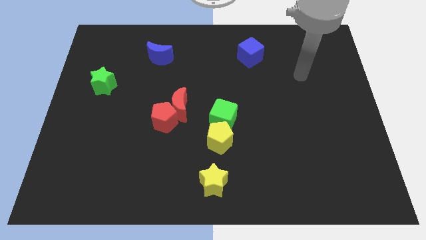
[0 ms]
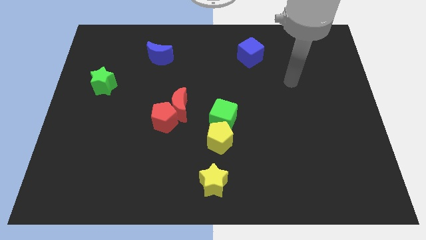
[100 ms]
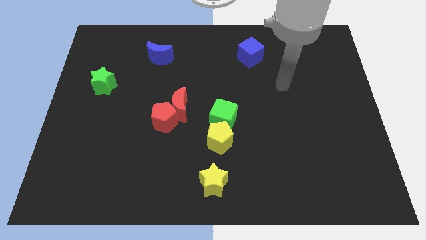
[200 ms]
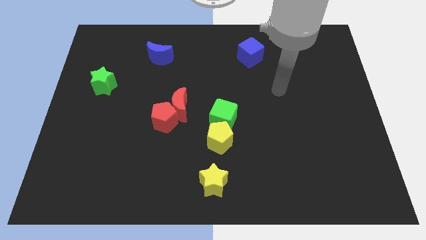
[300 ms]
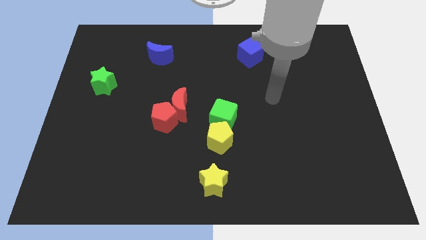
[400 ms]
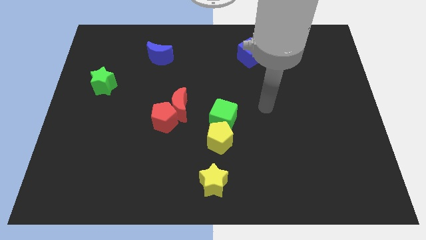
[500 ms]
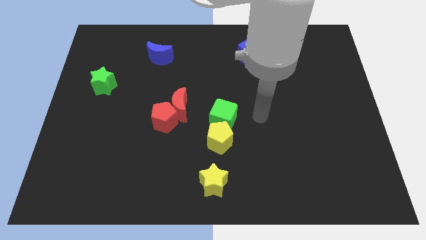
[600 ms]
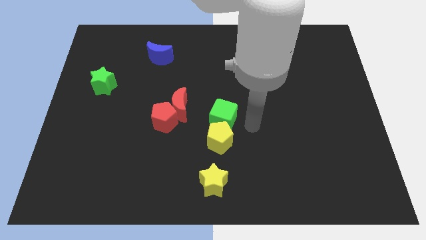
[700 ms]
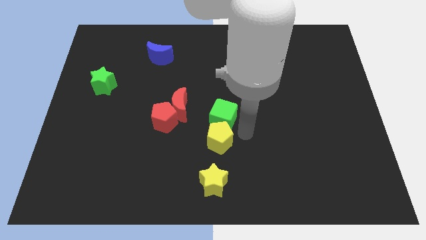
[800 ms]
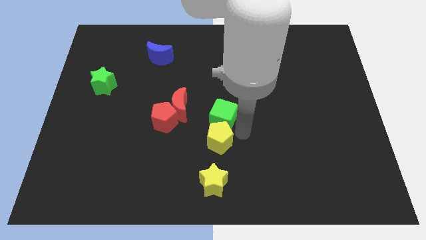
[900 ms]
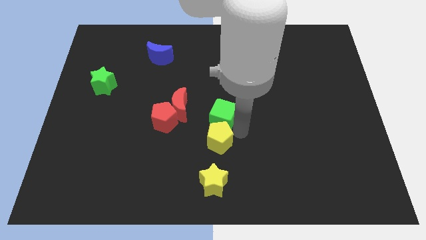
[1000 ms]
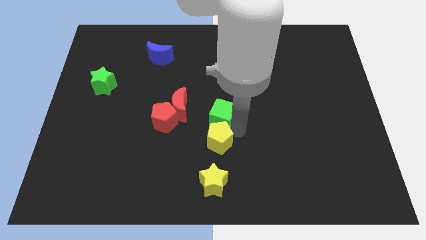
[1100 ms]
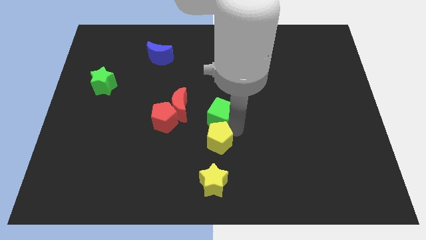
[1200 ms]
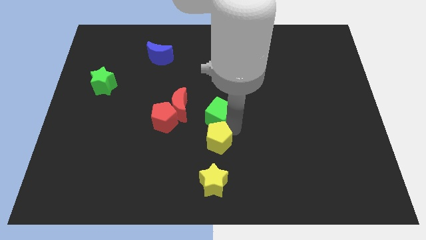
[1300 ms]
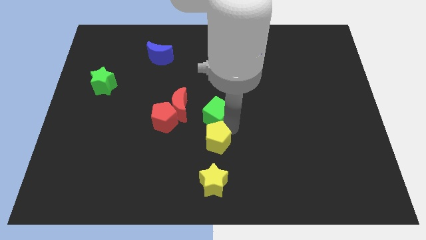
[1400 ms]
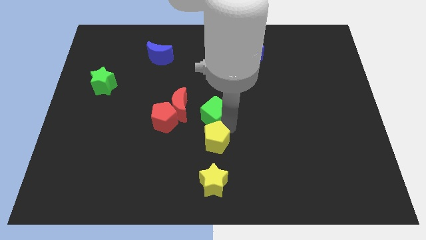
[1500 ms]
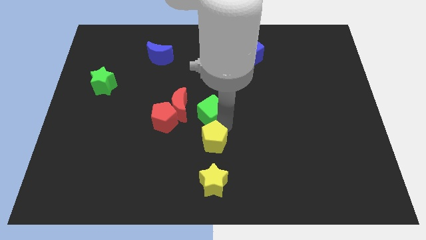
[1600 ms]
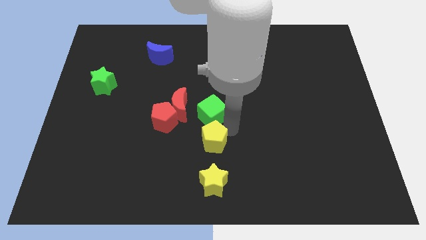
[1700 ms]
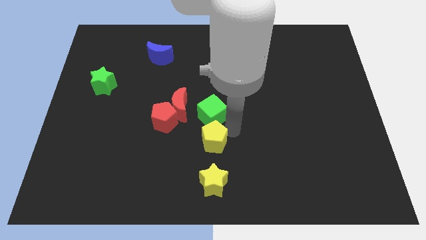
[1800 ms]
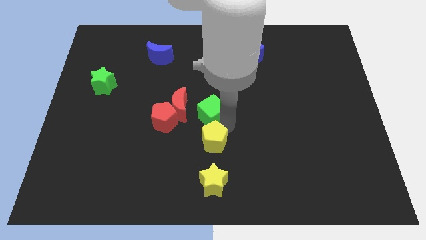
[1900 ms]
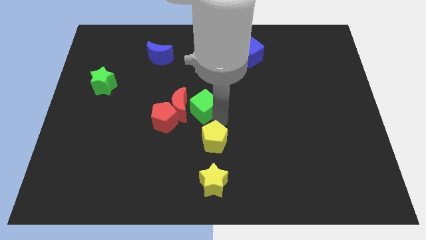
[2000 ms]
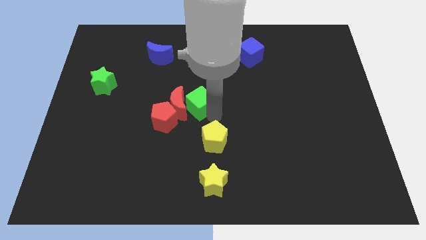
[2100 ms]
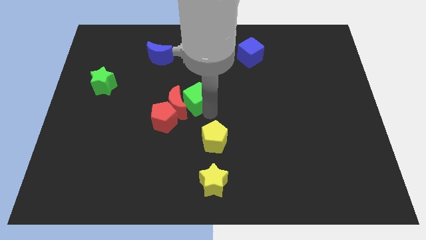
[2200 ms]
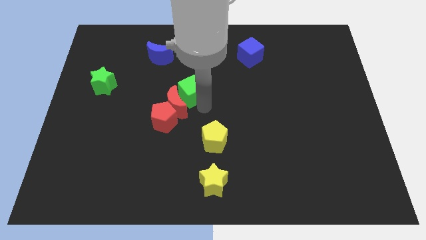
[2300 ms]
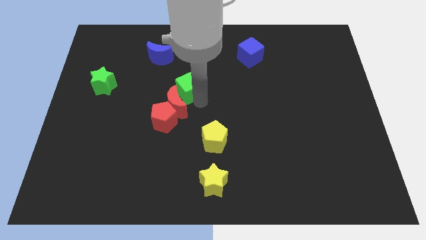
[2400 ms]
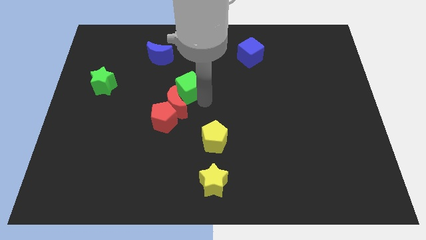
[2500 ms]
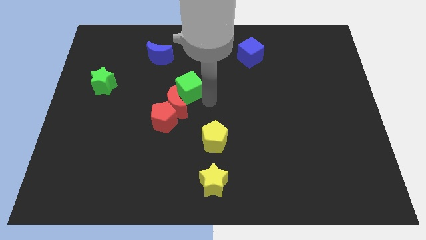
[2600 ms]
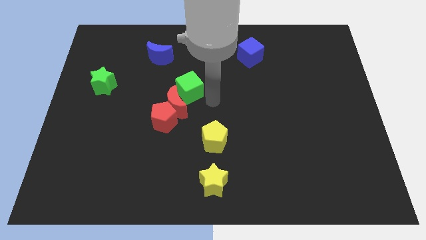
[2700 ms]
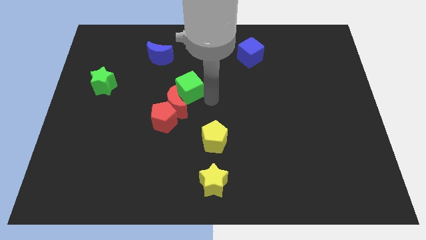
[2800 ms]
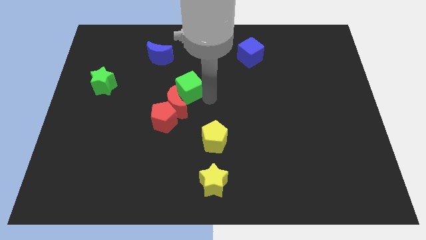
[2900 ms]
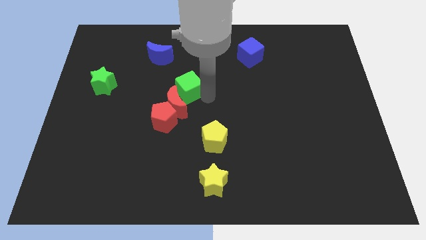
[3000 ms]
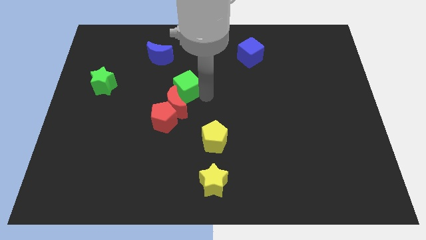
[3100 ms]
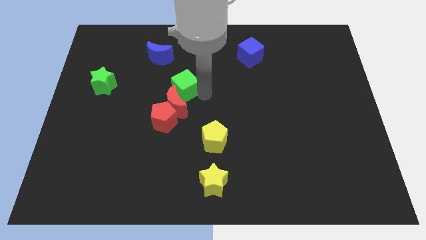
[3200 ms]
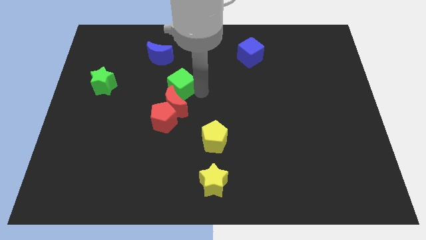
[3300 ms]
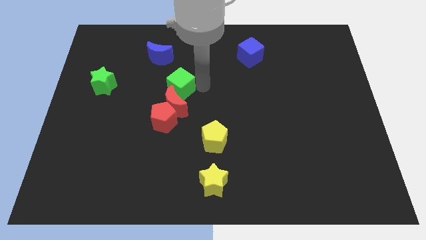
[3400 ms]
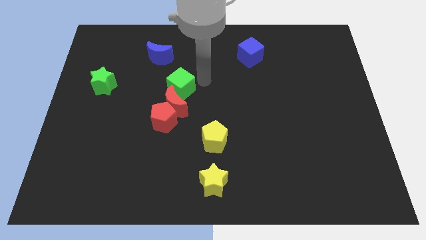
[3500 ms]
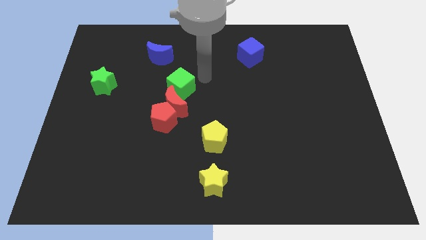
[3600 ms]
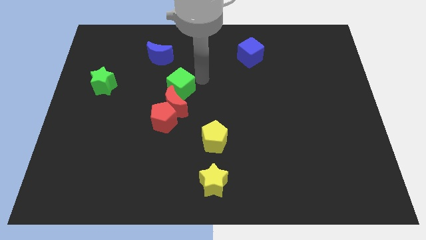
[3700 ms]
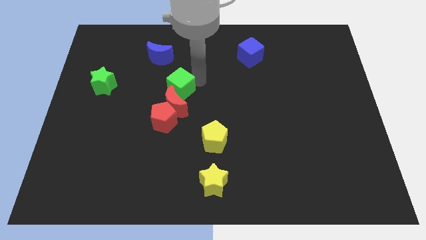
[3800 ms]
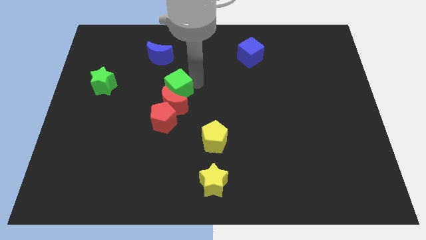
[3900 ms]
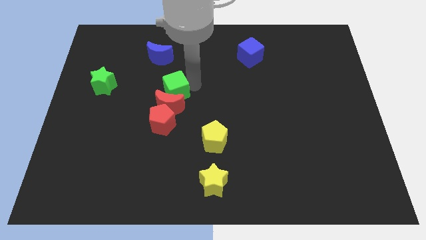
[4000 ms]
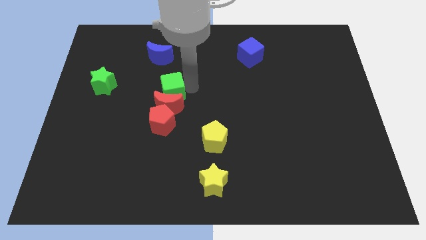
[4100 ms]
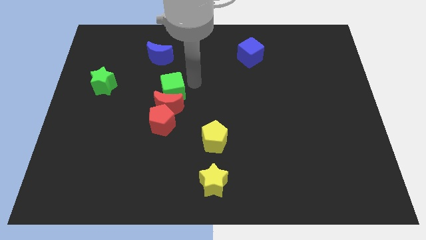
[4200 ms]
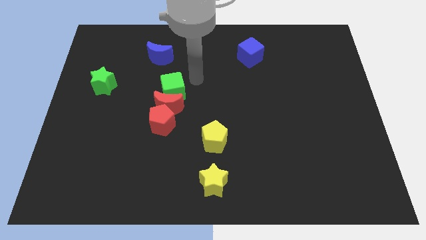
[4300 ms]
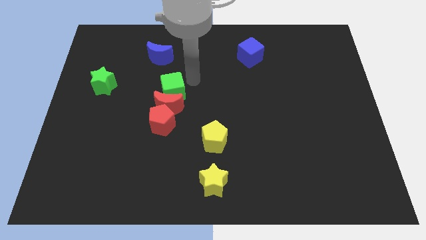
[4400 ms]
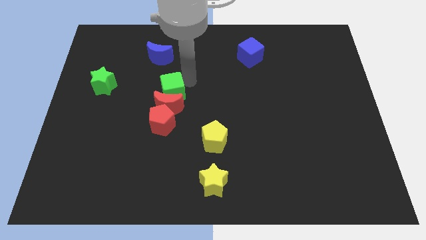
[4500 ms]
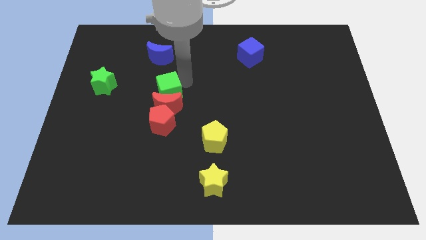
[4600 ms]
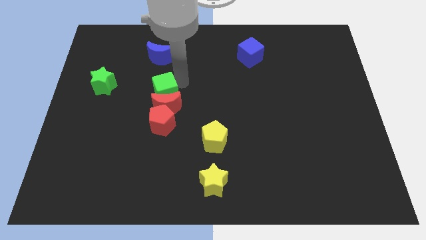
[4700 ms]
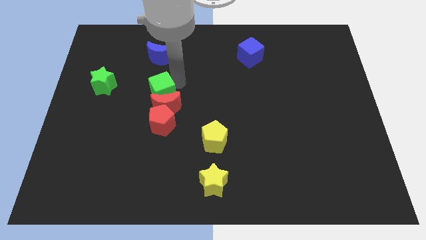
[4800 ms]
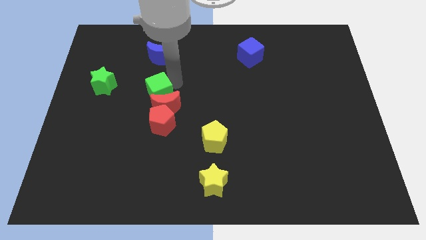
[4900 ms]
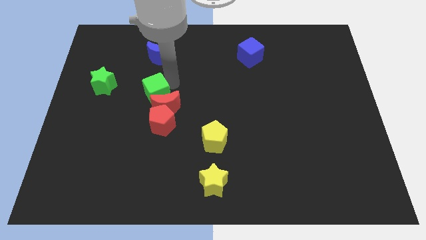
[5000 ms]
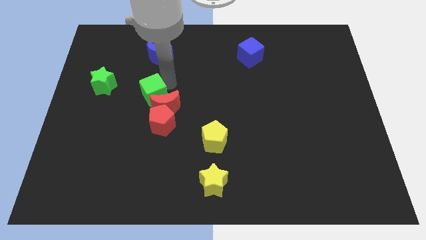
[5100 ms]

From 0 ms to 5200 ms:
put the green cube to the top left side of the red pentagon

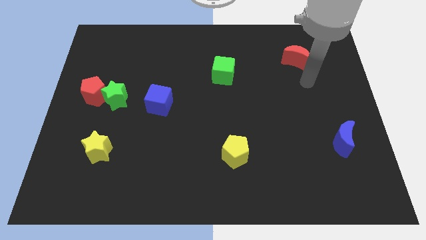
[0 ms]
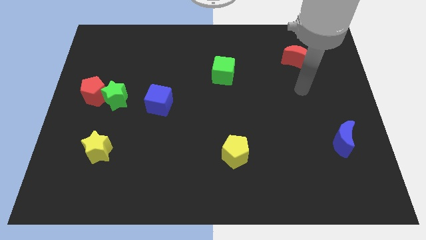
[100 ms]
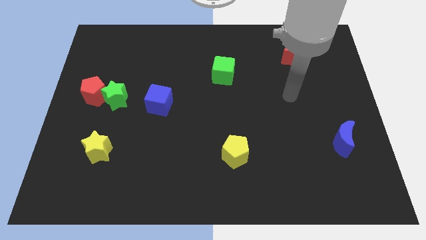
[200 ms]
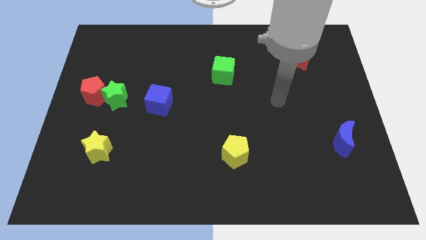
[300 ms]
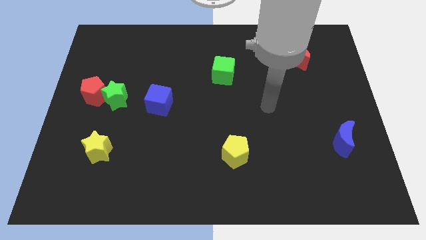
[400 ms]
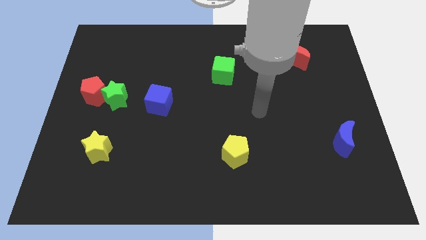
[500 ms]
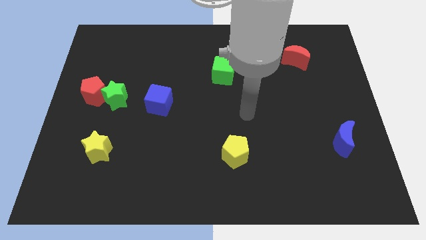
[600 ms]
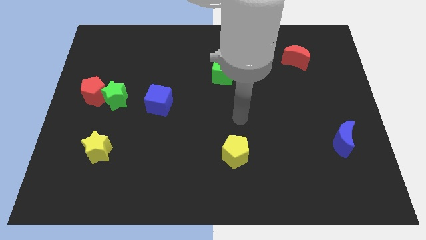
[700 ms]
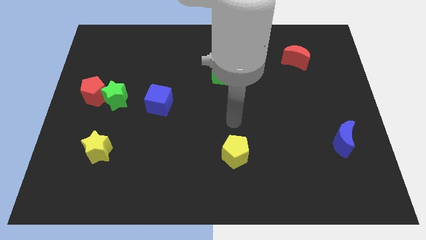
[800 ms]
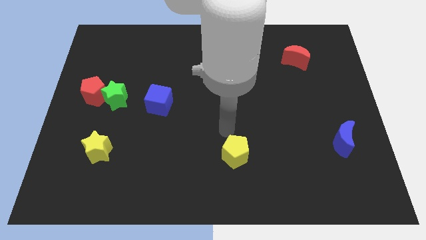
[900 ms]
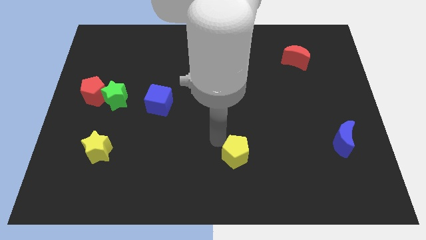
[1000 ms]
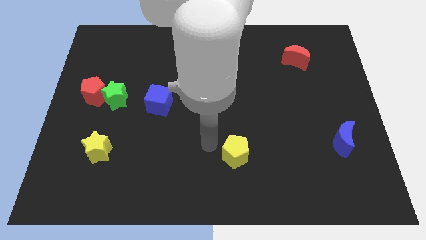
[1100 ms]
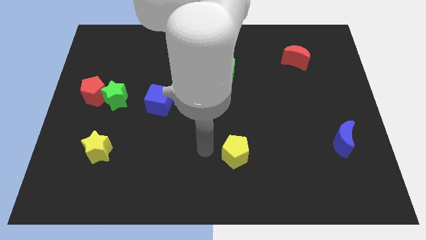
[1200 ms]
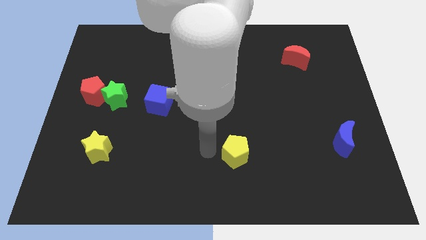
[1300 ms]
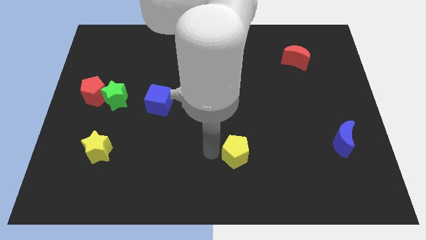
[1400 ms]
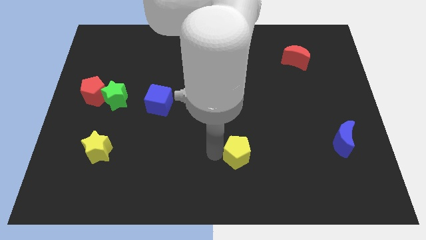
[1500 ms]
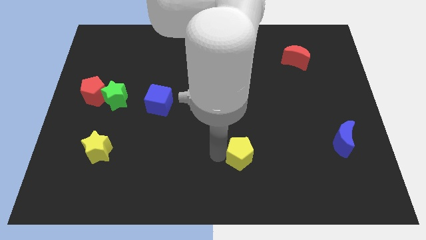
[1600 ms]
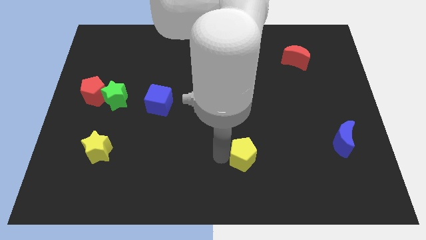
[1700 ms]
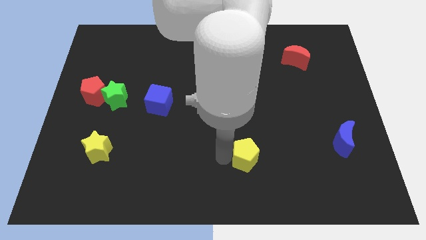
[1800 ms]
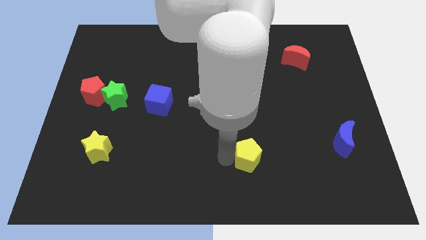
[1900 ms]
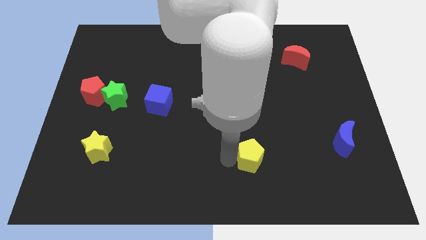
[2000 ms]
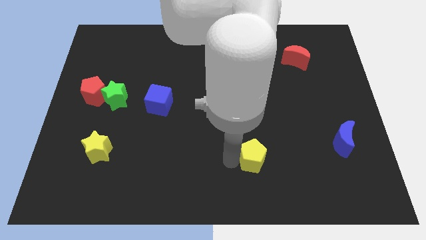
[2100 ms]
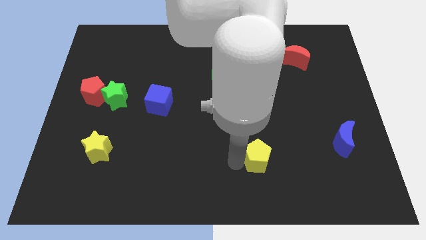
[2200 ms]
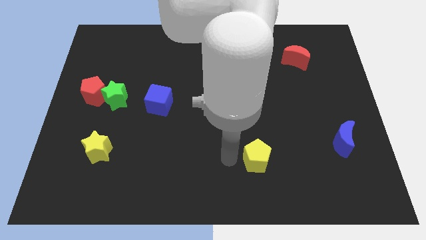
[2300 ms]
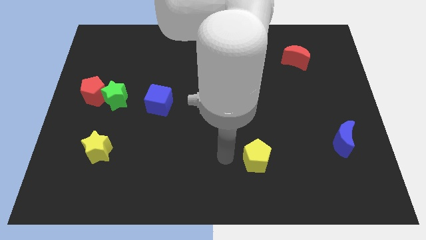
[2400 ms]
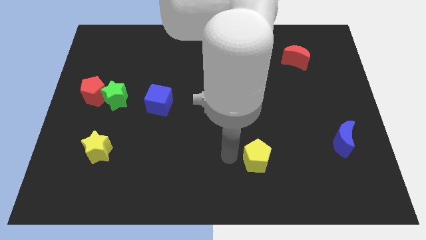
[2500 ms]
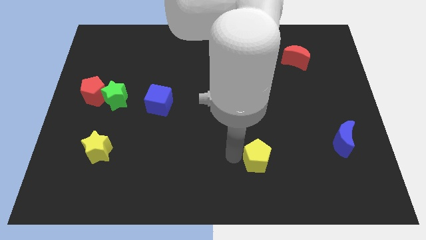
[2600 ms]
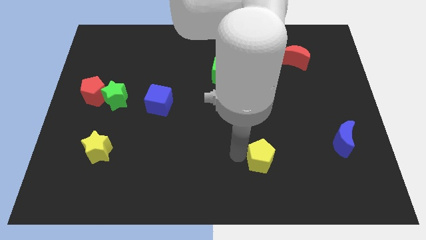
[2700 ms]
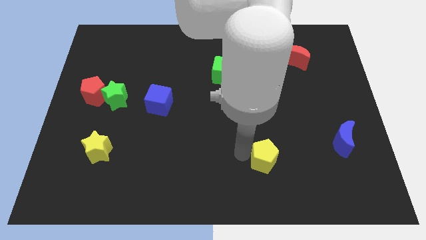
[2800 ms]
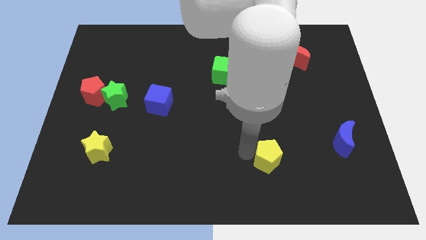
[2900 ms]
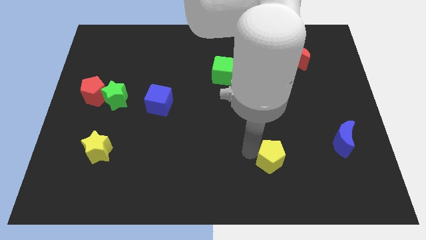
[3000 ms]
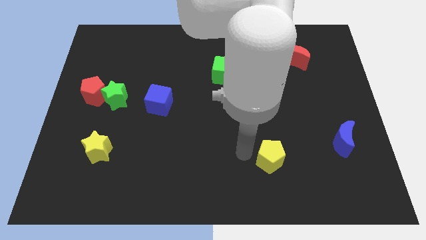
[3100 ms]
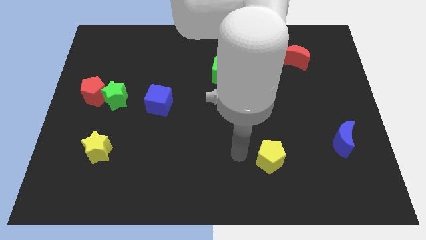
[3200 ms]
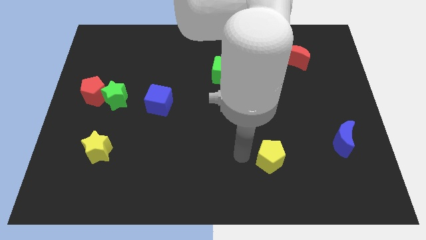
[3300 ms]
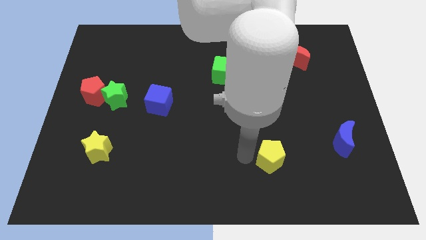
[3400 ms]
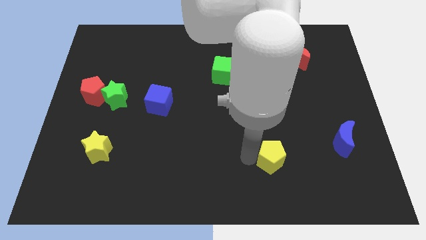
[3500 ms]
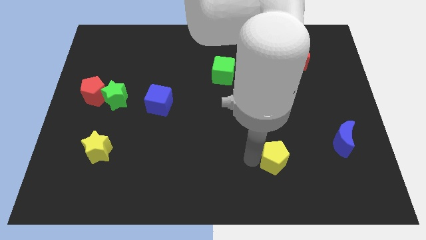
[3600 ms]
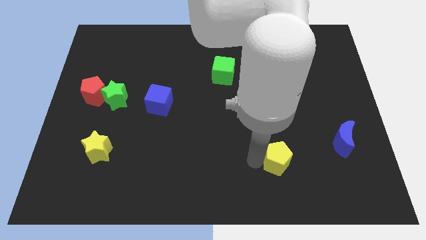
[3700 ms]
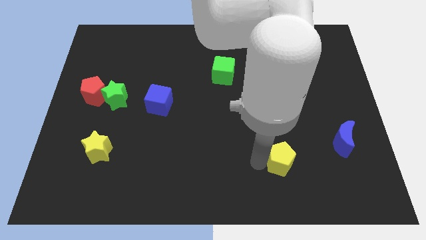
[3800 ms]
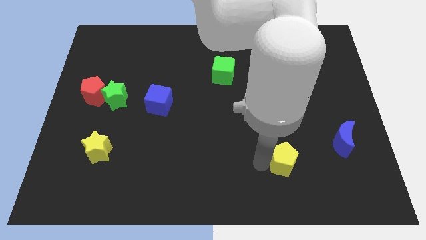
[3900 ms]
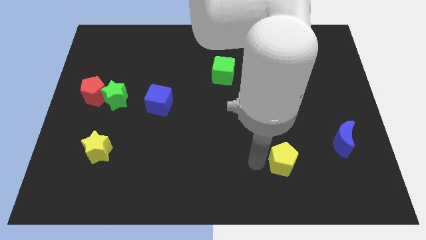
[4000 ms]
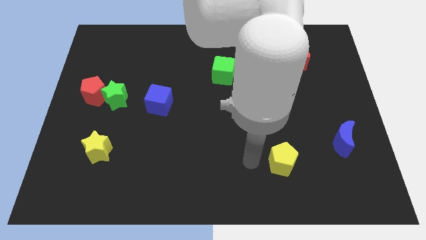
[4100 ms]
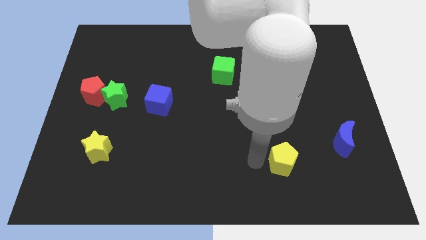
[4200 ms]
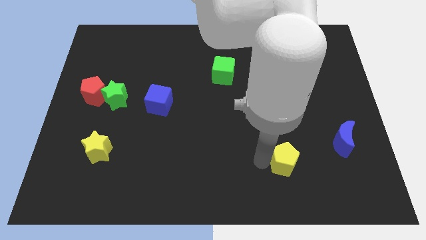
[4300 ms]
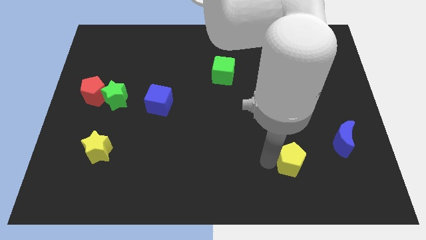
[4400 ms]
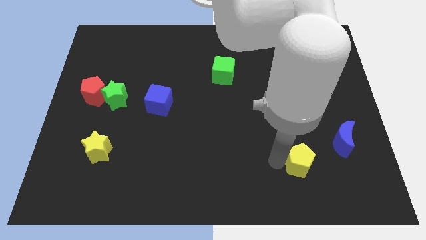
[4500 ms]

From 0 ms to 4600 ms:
put the yellow pentagon diagonally down and to the left of the blue moon
